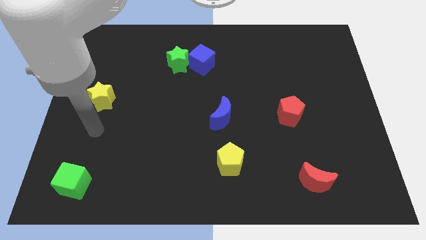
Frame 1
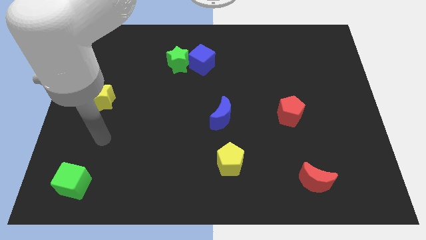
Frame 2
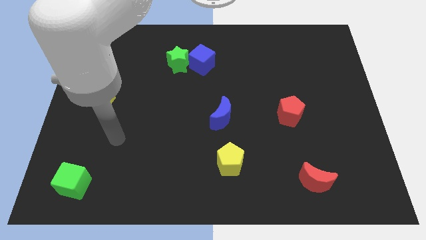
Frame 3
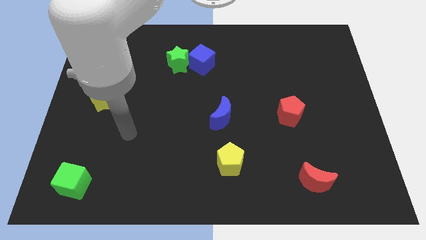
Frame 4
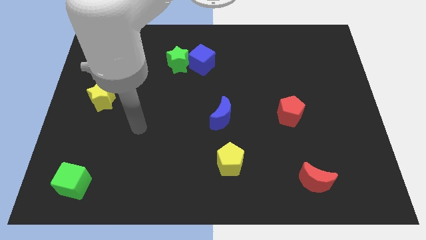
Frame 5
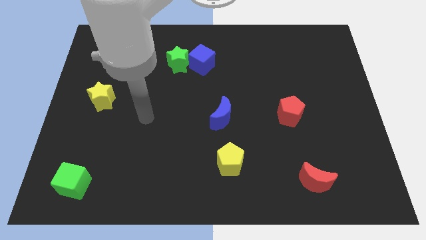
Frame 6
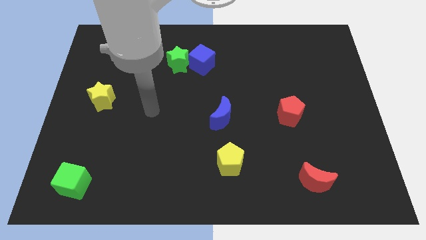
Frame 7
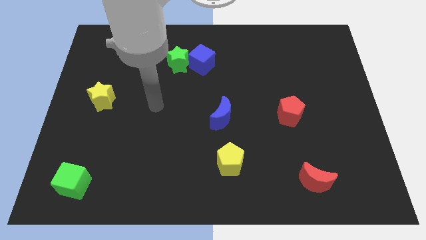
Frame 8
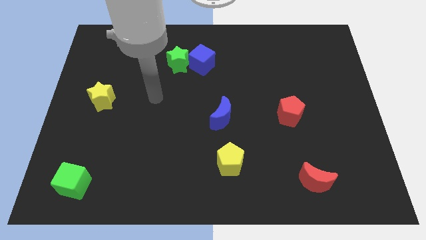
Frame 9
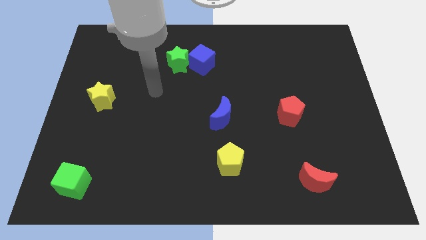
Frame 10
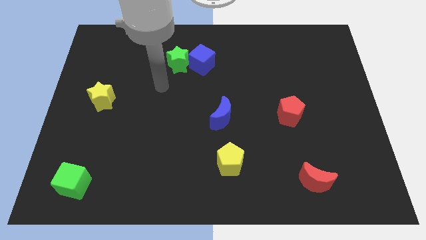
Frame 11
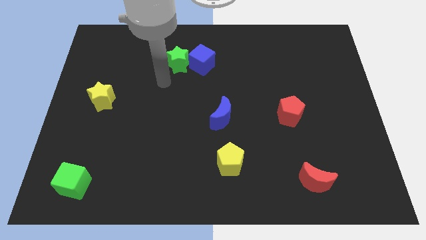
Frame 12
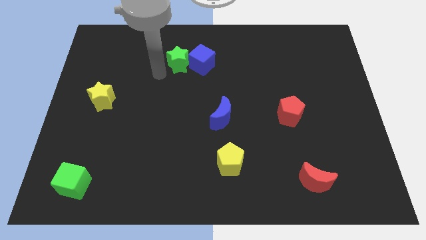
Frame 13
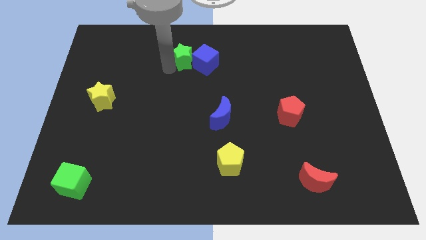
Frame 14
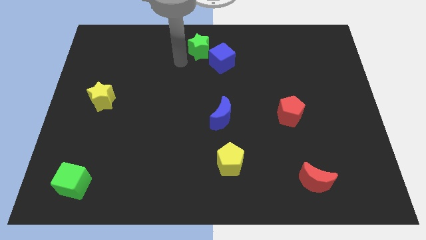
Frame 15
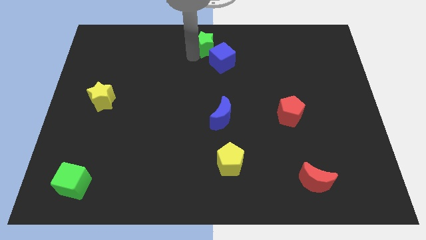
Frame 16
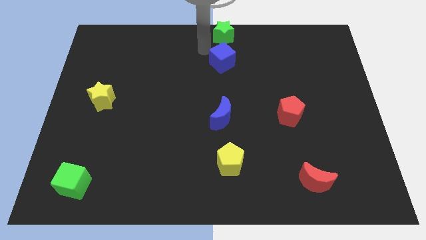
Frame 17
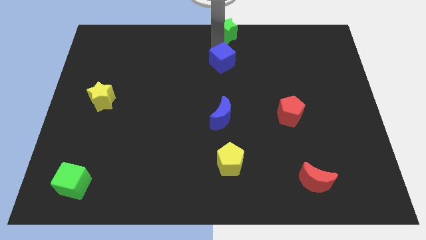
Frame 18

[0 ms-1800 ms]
pull the blue cube apart from the green star

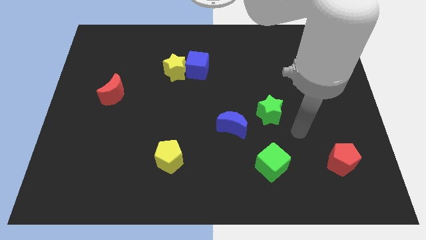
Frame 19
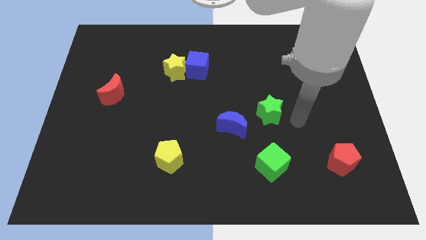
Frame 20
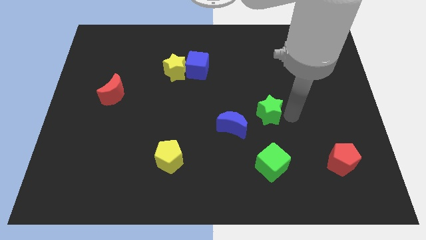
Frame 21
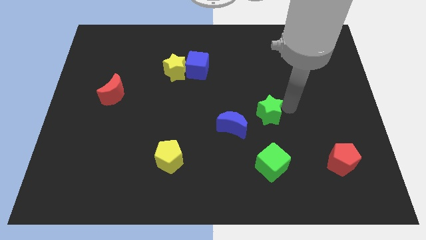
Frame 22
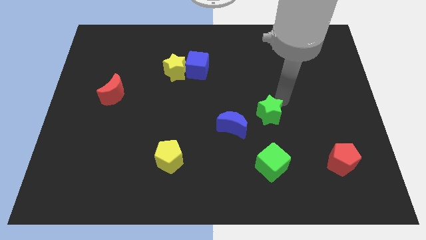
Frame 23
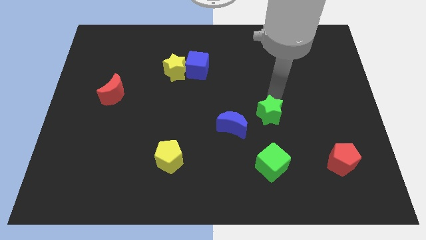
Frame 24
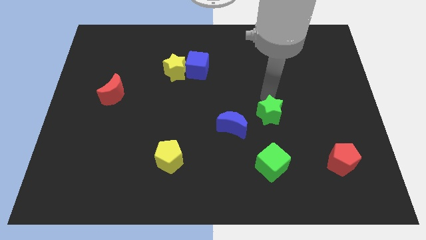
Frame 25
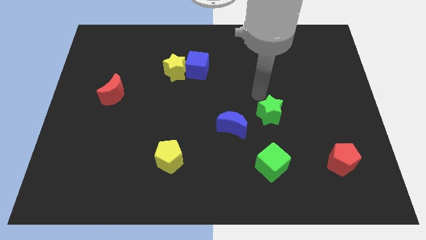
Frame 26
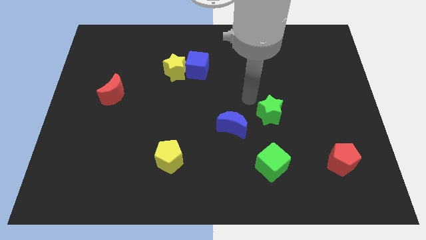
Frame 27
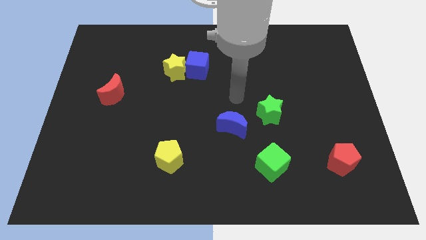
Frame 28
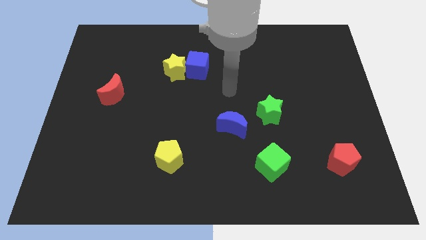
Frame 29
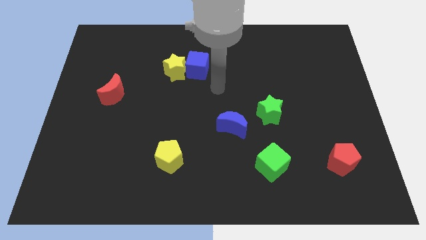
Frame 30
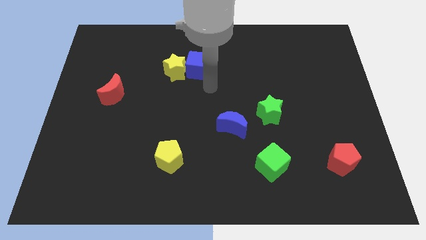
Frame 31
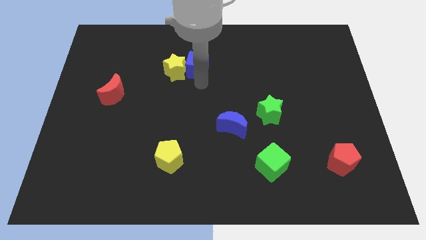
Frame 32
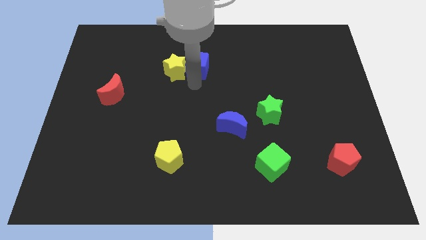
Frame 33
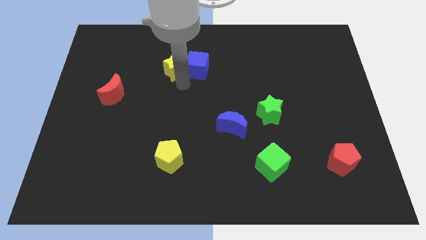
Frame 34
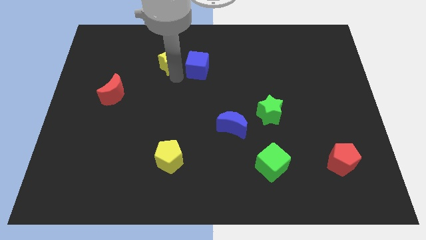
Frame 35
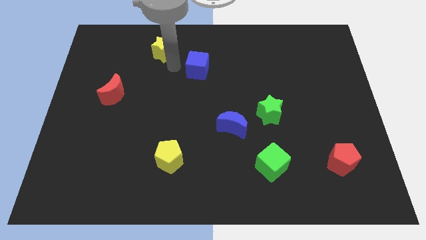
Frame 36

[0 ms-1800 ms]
pull the blue cube apart from the yellow star

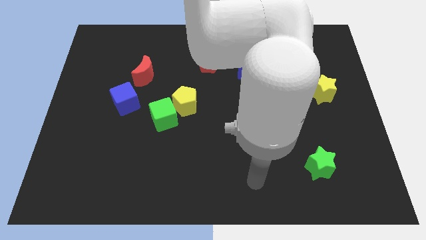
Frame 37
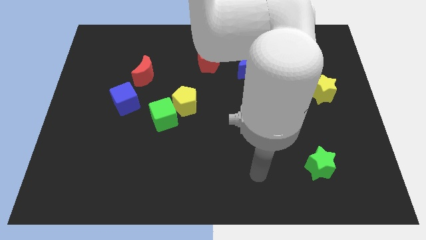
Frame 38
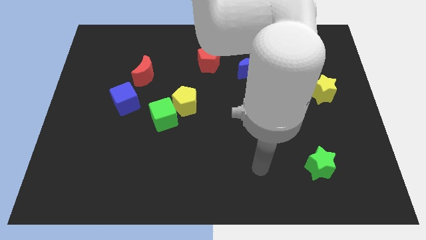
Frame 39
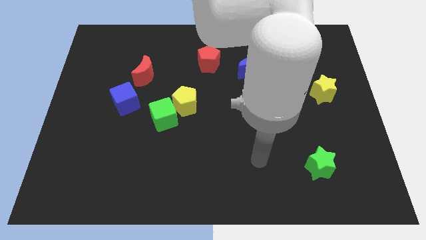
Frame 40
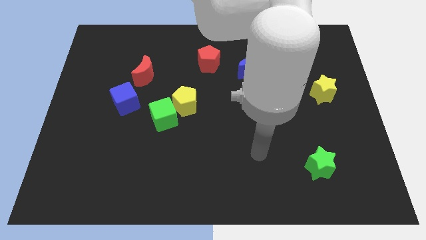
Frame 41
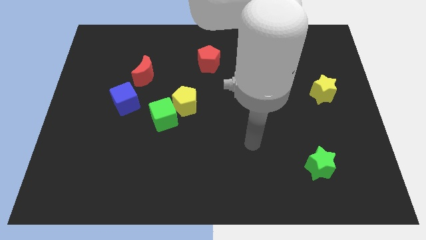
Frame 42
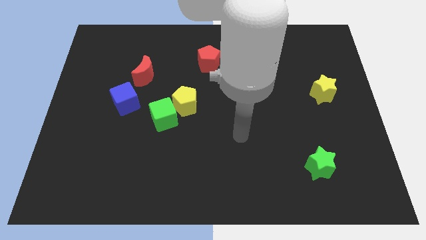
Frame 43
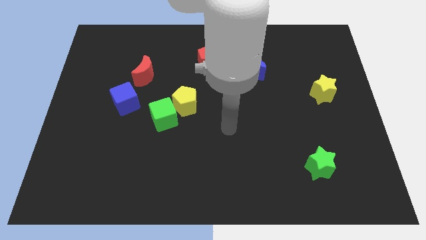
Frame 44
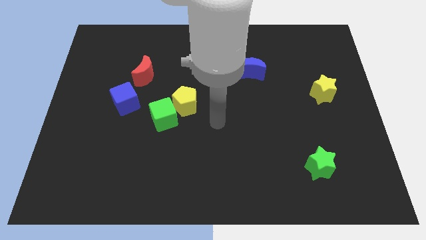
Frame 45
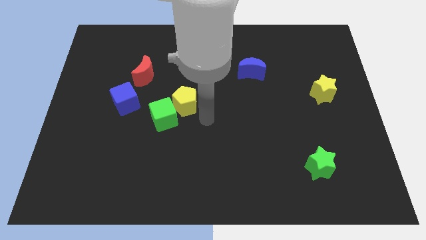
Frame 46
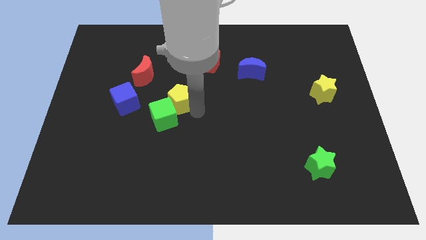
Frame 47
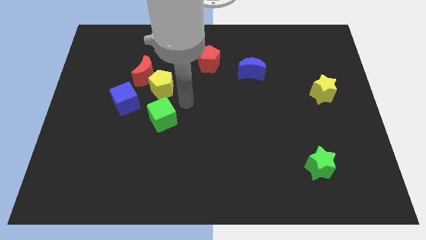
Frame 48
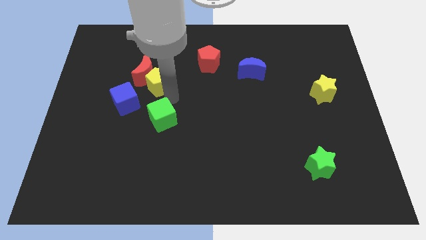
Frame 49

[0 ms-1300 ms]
move the green cube away from the yellow pentagon

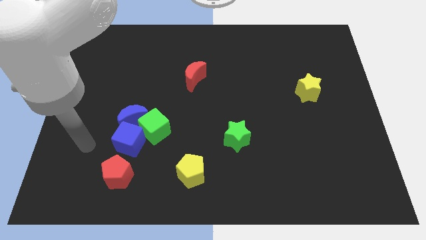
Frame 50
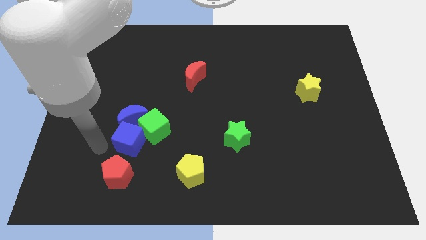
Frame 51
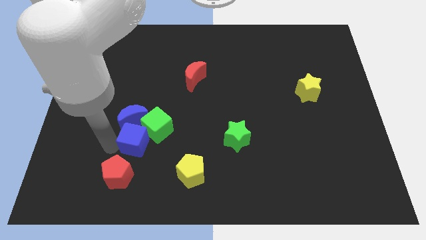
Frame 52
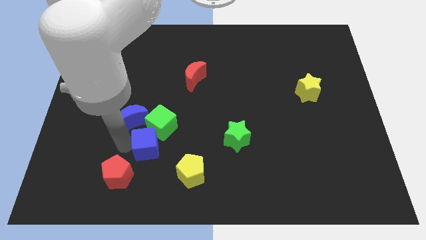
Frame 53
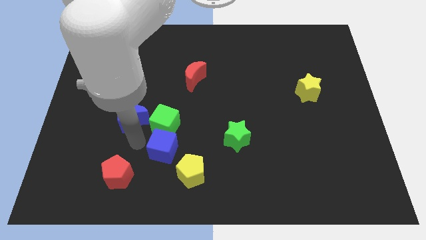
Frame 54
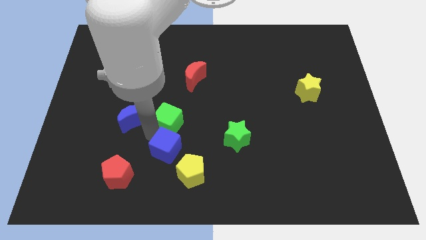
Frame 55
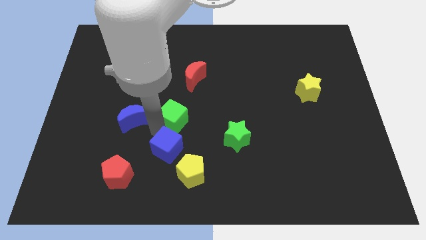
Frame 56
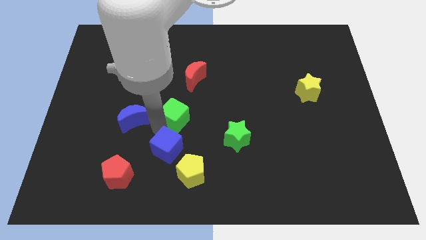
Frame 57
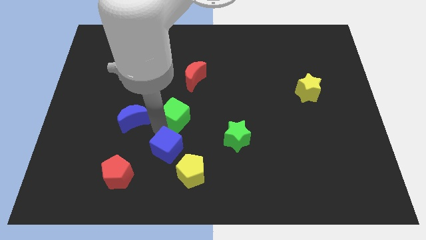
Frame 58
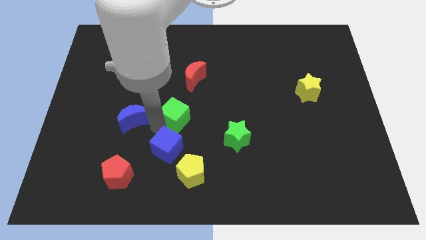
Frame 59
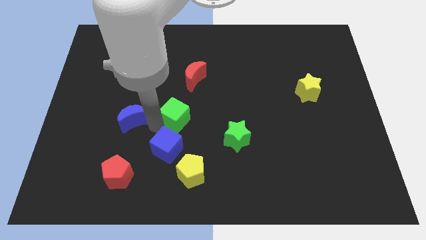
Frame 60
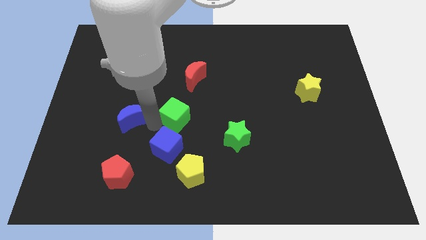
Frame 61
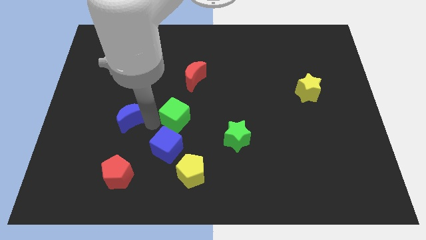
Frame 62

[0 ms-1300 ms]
separate the blue moon from the green cube and blue cube

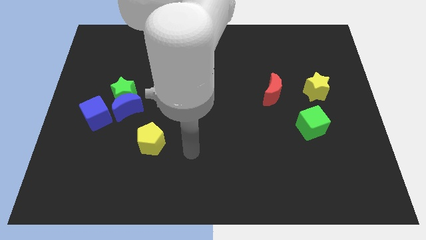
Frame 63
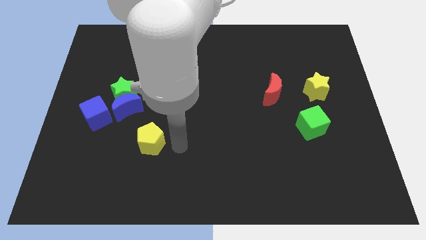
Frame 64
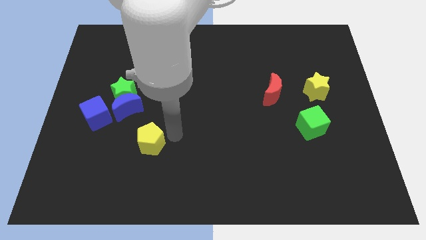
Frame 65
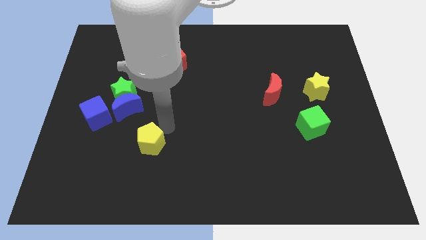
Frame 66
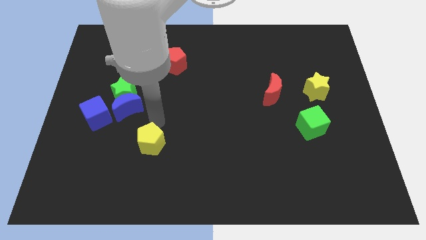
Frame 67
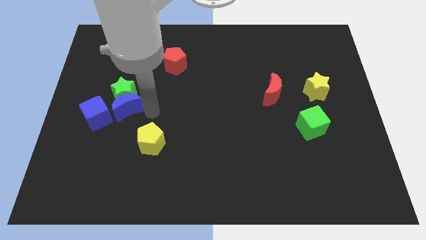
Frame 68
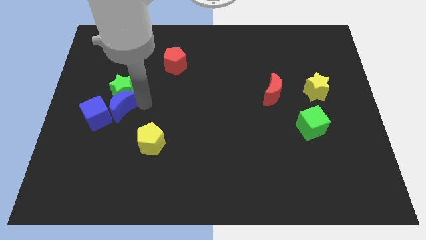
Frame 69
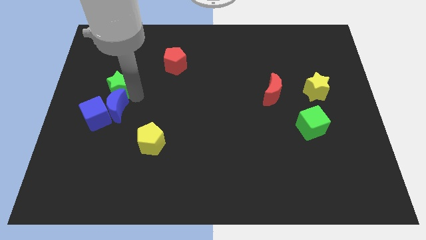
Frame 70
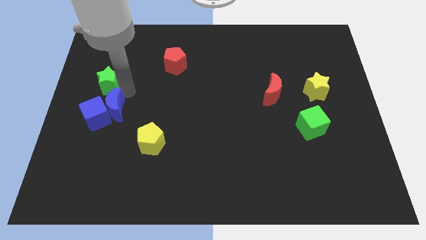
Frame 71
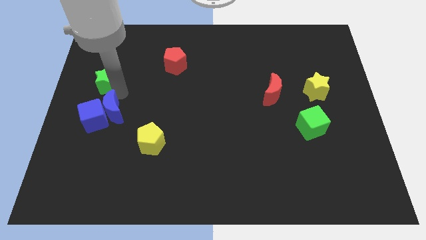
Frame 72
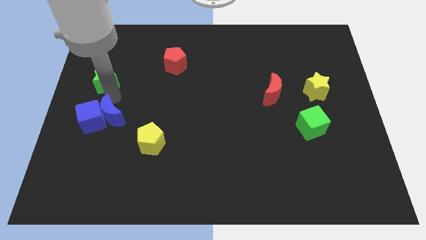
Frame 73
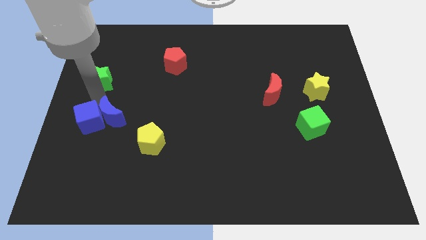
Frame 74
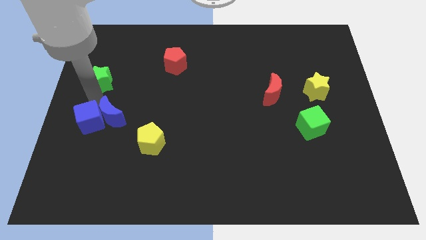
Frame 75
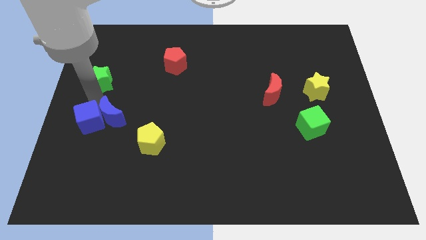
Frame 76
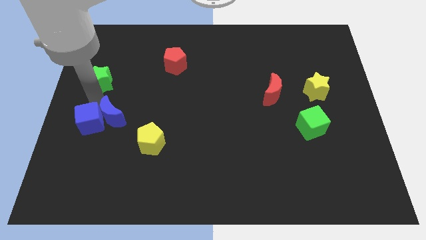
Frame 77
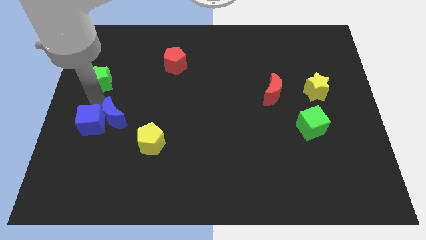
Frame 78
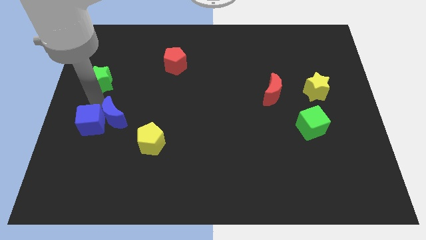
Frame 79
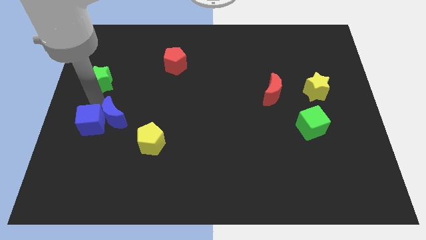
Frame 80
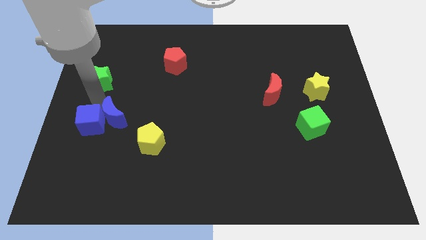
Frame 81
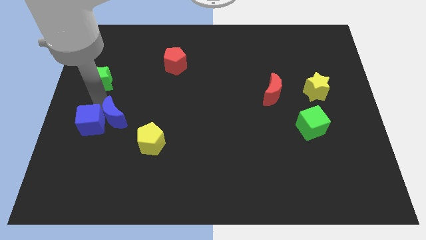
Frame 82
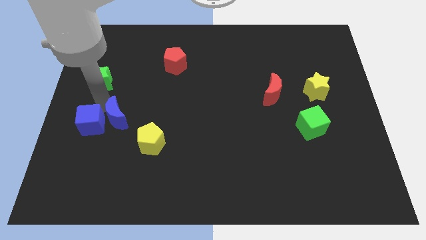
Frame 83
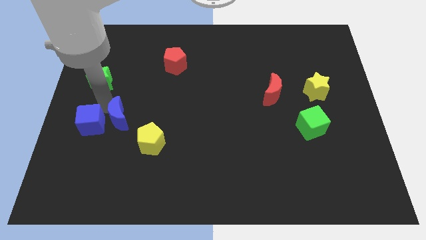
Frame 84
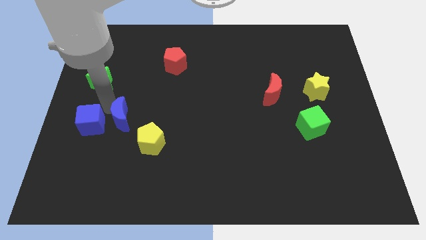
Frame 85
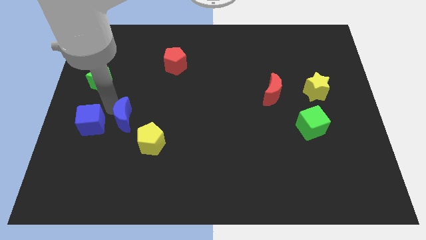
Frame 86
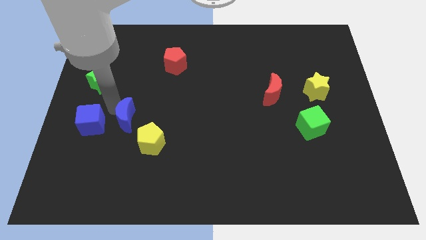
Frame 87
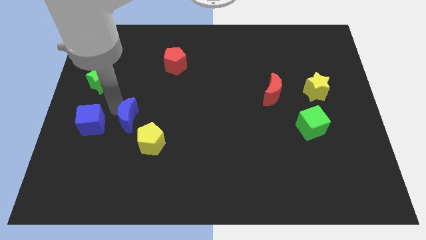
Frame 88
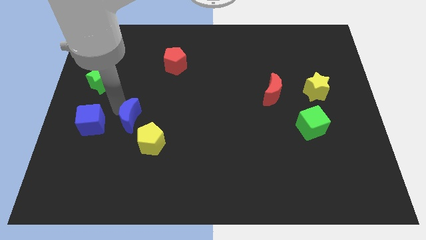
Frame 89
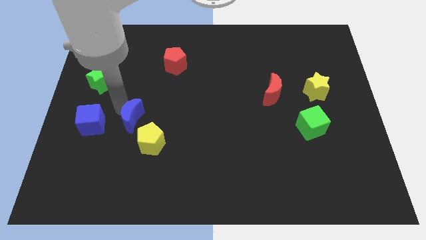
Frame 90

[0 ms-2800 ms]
move the blue moon away from the green star and blue cube

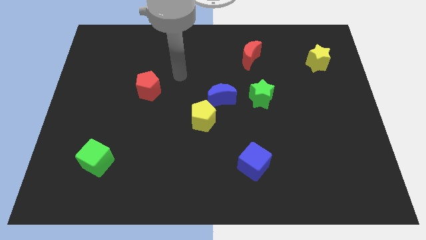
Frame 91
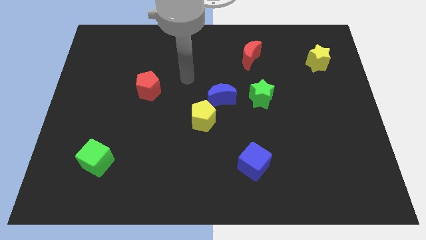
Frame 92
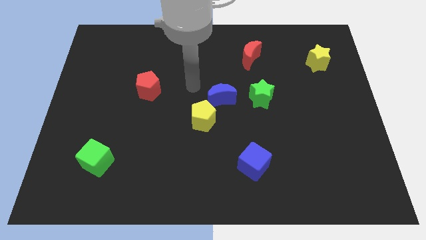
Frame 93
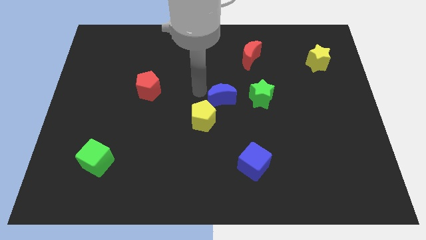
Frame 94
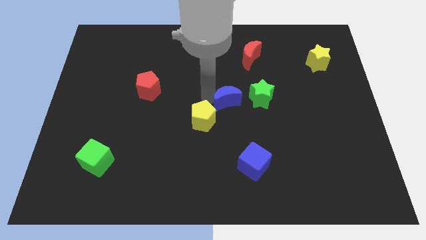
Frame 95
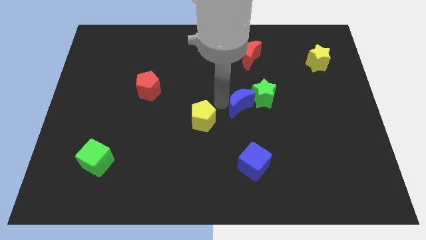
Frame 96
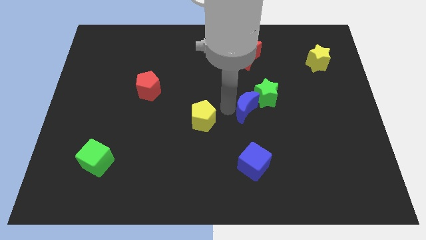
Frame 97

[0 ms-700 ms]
separate the yellow pentagon from the blue moon
